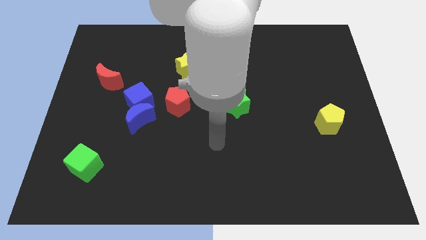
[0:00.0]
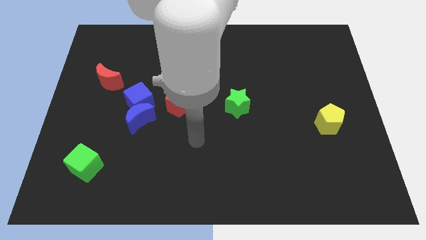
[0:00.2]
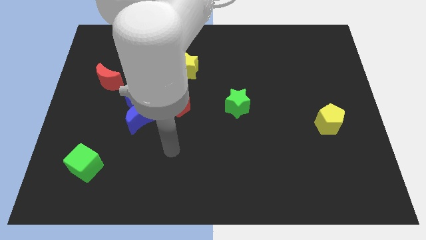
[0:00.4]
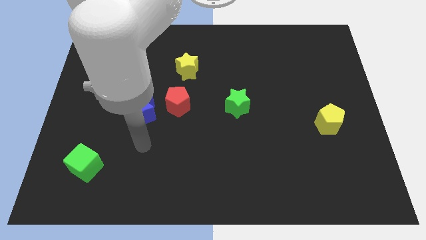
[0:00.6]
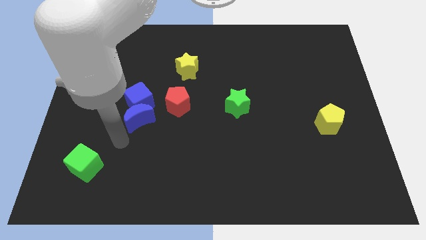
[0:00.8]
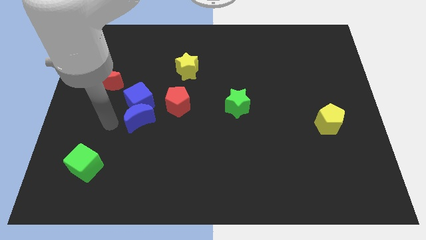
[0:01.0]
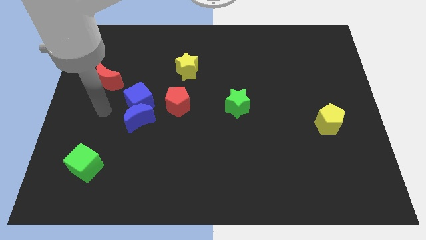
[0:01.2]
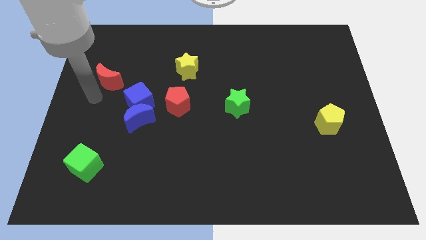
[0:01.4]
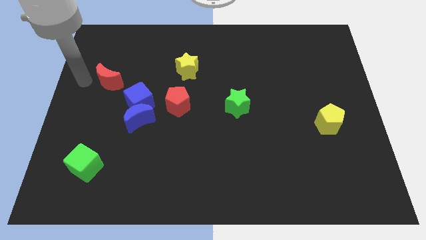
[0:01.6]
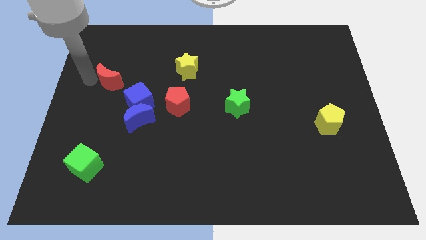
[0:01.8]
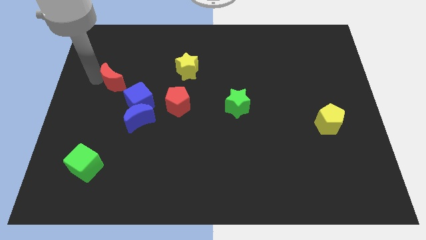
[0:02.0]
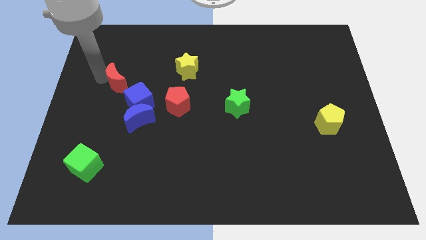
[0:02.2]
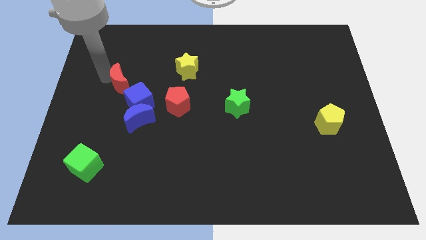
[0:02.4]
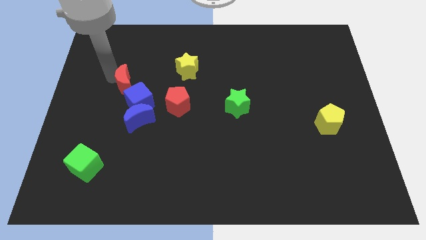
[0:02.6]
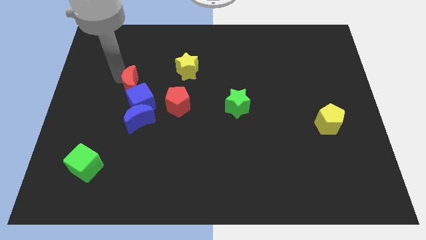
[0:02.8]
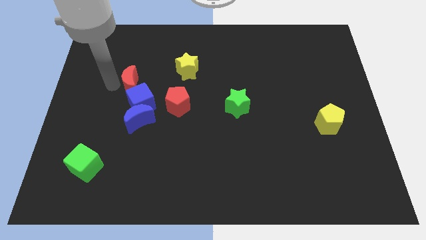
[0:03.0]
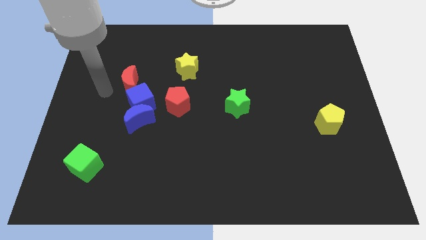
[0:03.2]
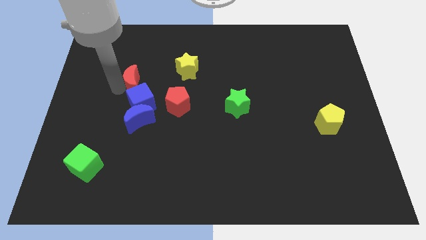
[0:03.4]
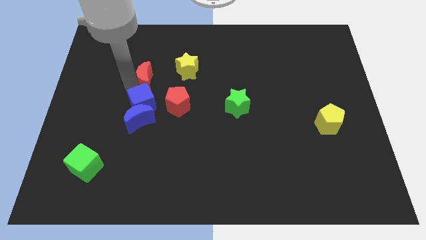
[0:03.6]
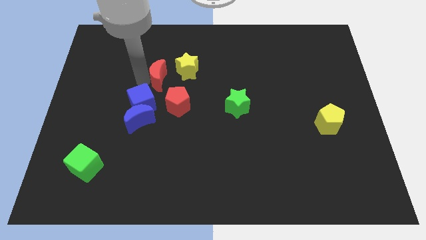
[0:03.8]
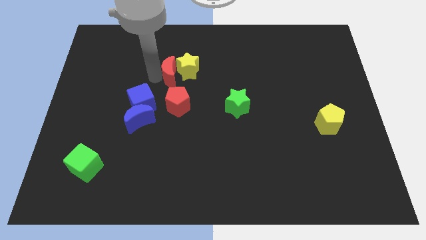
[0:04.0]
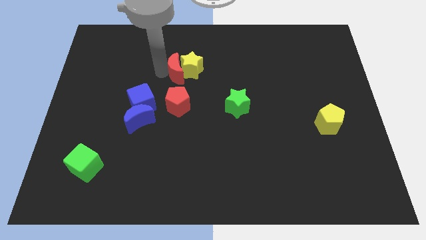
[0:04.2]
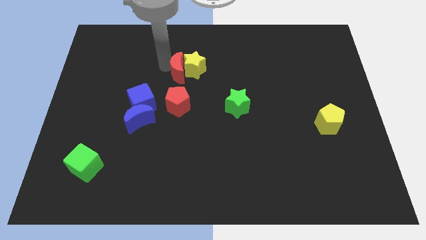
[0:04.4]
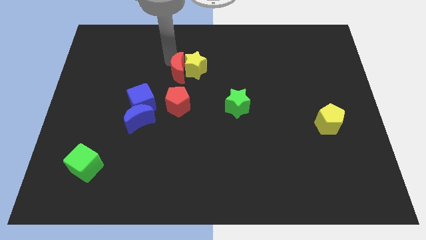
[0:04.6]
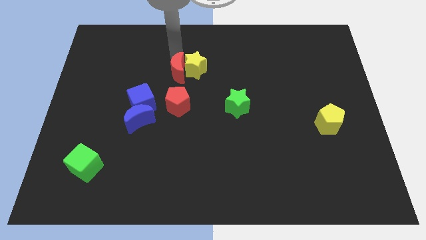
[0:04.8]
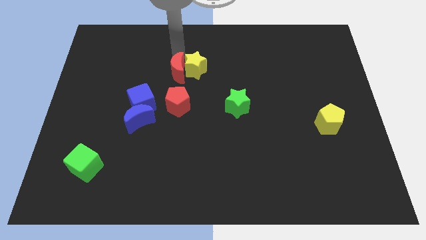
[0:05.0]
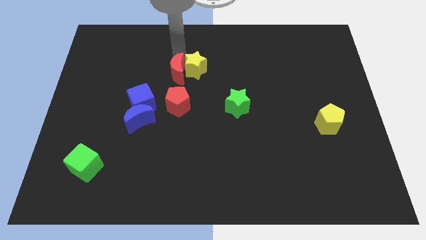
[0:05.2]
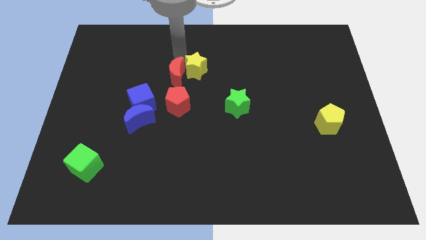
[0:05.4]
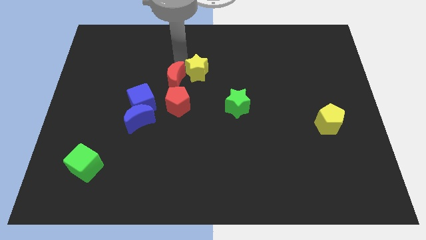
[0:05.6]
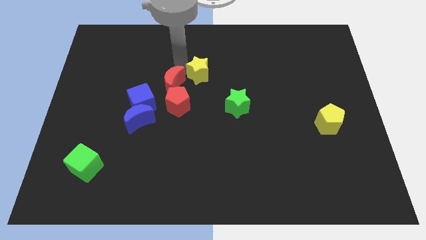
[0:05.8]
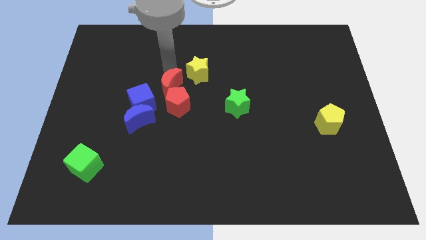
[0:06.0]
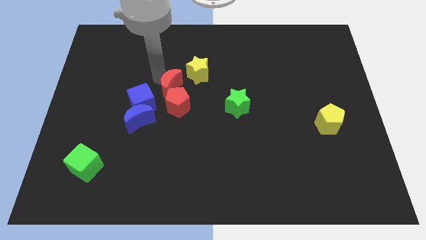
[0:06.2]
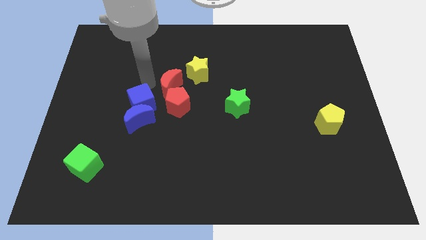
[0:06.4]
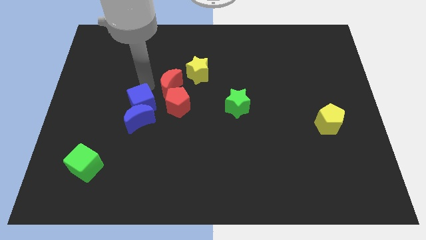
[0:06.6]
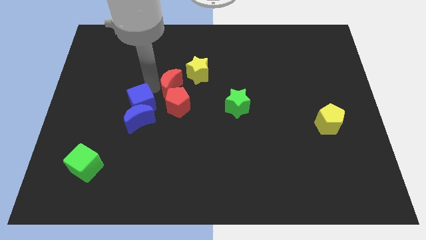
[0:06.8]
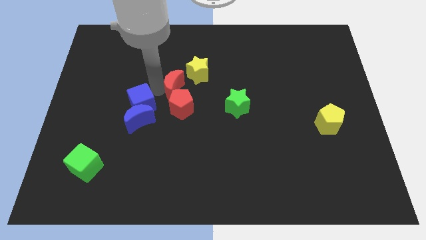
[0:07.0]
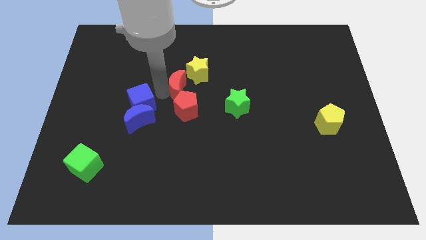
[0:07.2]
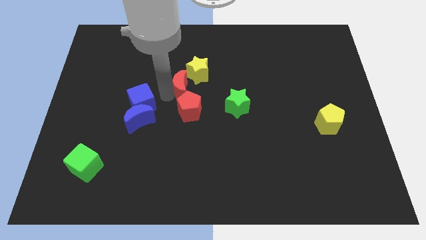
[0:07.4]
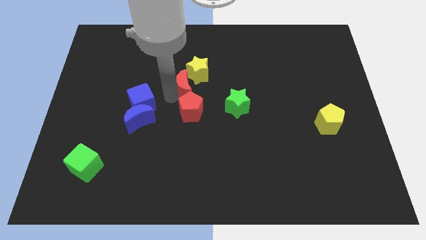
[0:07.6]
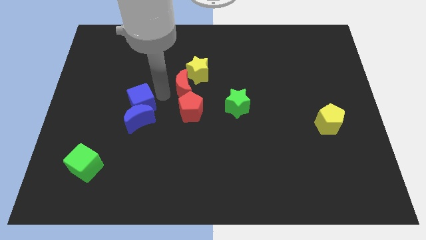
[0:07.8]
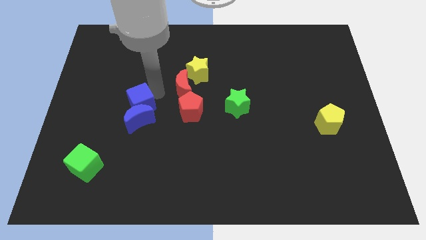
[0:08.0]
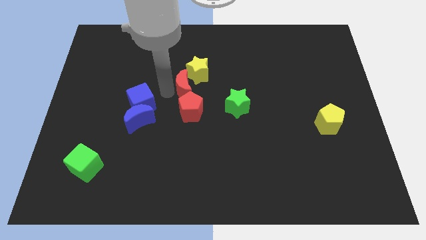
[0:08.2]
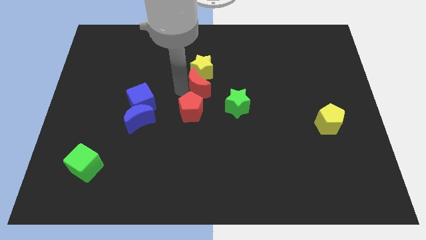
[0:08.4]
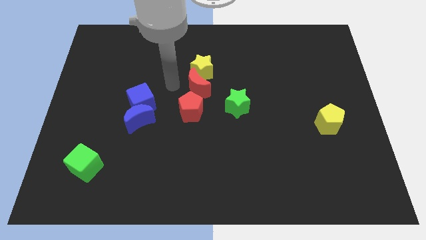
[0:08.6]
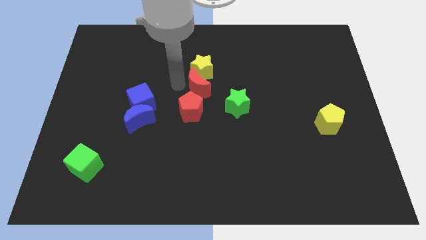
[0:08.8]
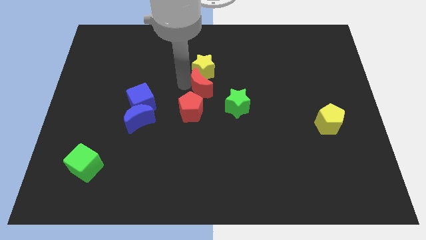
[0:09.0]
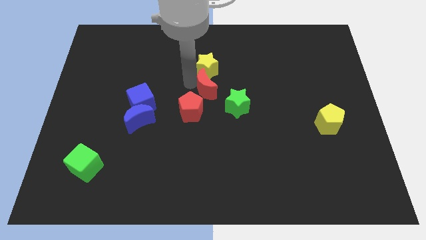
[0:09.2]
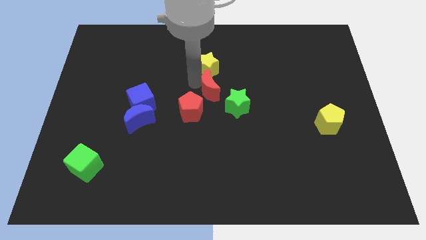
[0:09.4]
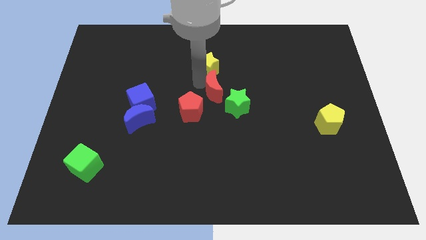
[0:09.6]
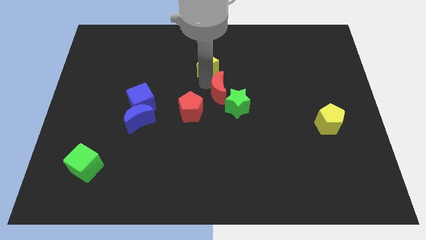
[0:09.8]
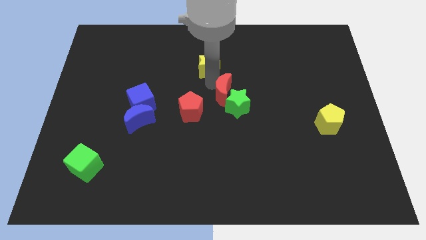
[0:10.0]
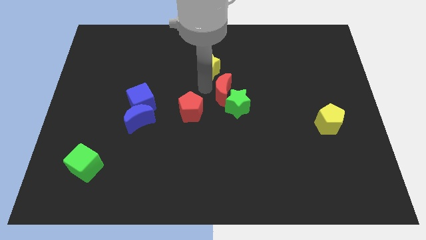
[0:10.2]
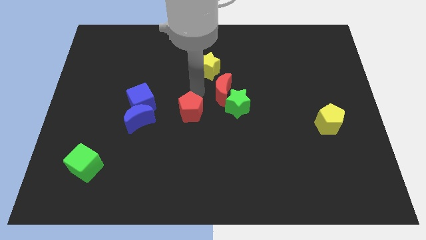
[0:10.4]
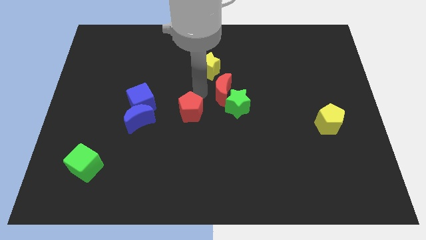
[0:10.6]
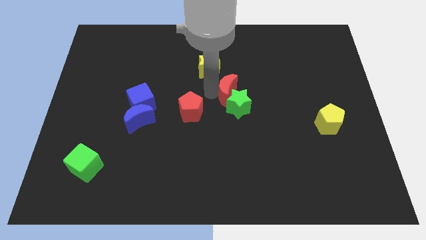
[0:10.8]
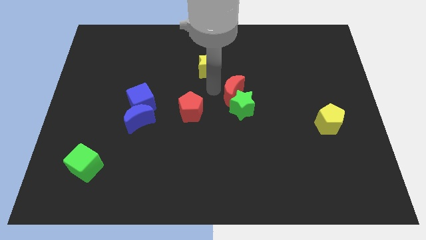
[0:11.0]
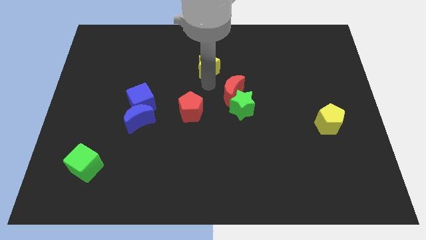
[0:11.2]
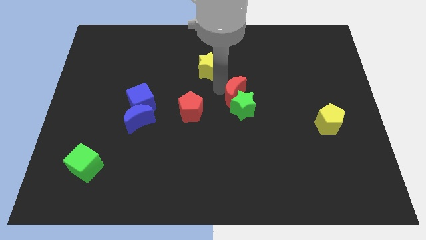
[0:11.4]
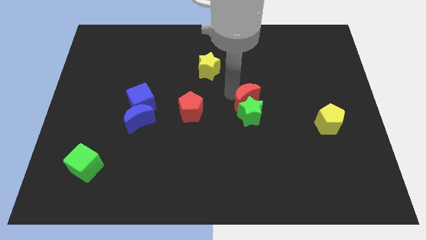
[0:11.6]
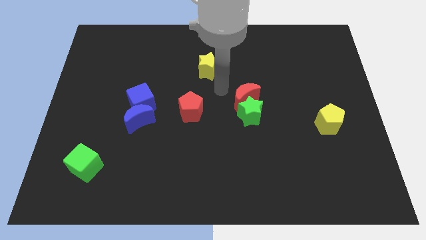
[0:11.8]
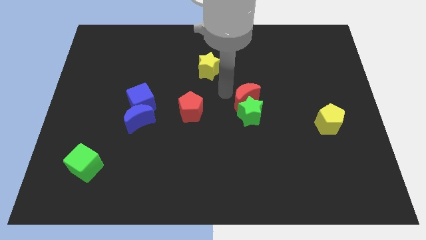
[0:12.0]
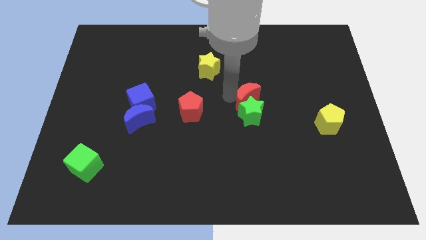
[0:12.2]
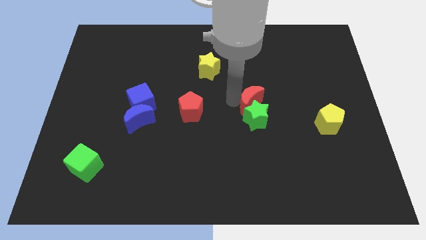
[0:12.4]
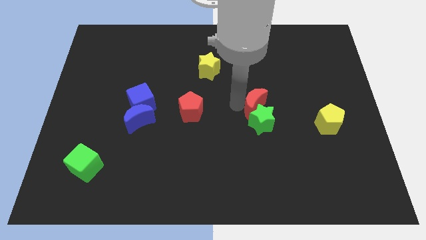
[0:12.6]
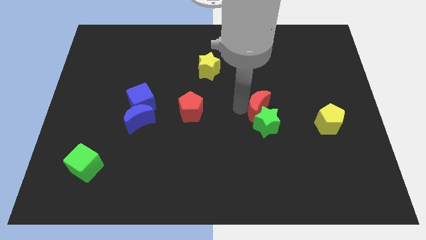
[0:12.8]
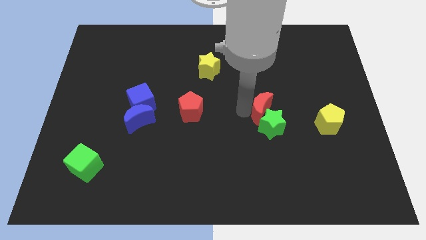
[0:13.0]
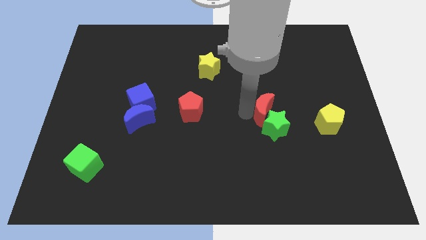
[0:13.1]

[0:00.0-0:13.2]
push the red moon to the left of the yellow pentagon

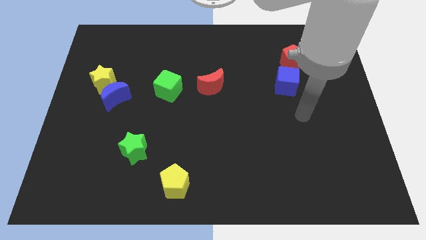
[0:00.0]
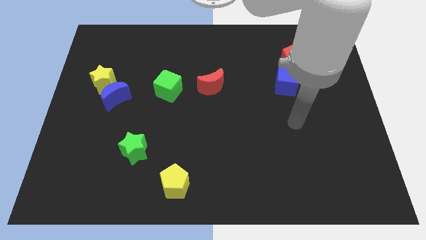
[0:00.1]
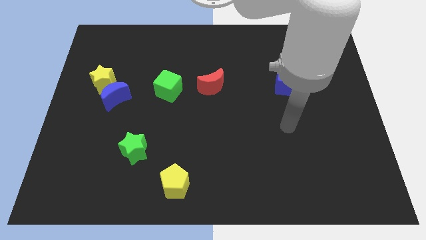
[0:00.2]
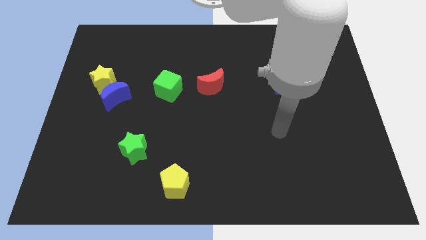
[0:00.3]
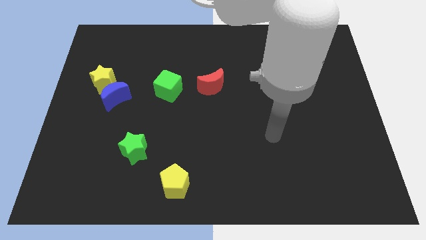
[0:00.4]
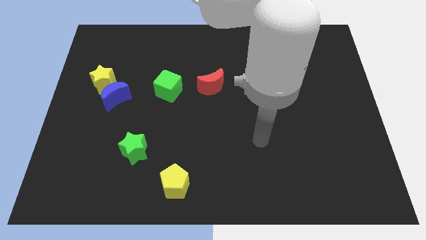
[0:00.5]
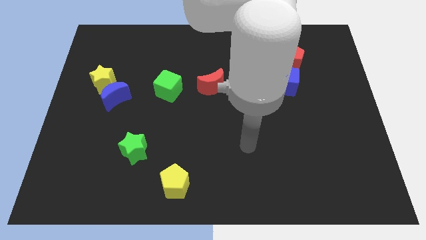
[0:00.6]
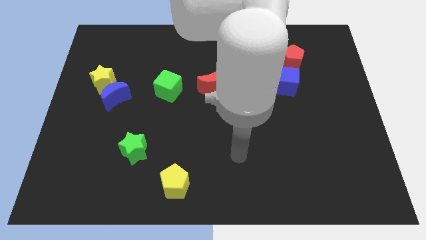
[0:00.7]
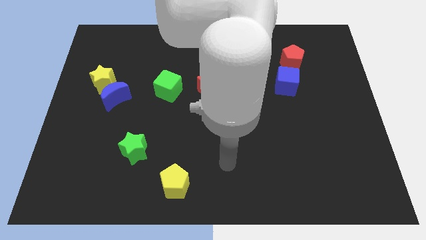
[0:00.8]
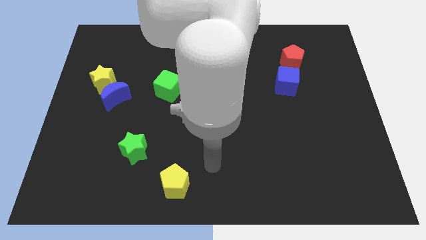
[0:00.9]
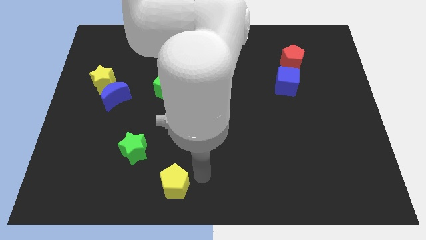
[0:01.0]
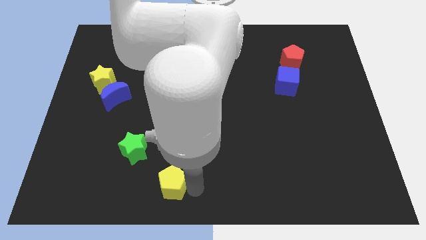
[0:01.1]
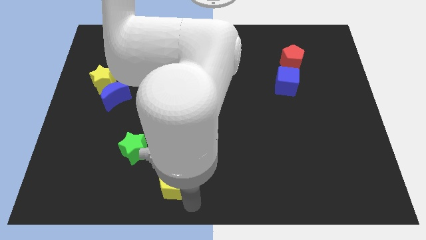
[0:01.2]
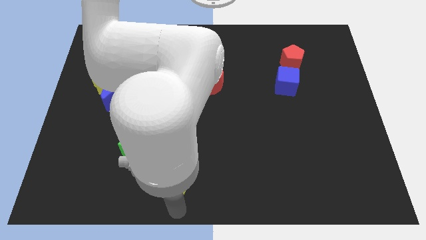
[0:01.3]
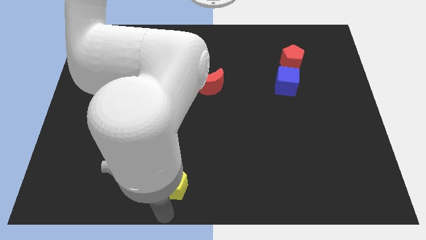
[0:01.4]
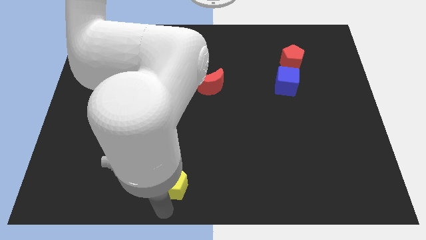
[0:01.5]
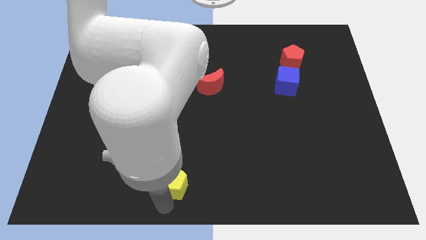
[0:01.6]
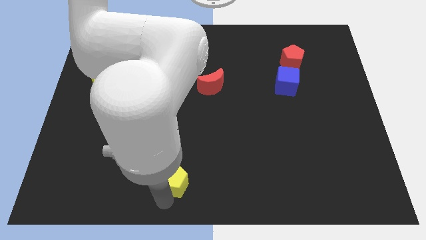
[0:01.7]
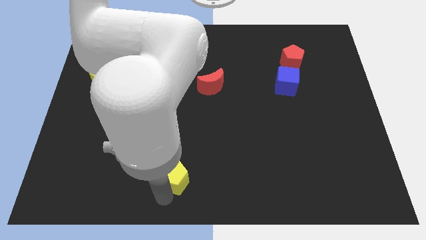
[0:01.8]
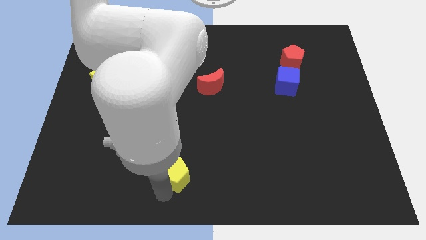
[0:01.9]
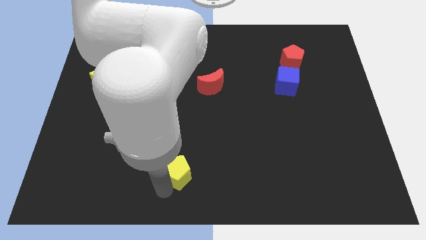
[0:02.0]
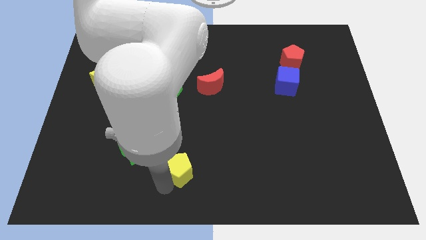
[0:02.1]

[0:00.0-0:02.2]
slide the yellow pentagon to the right side of the green star
